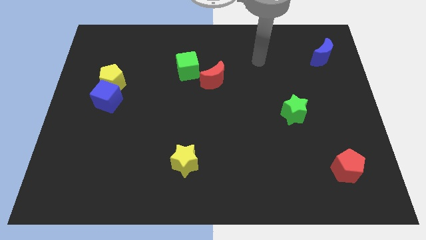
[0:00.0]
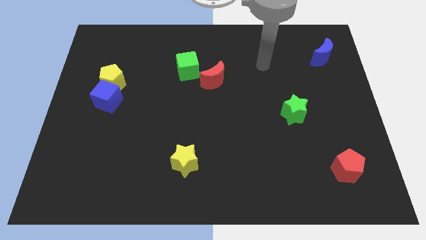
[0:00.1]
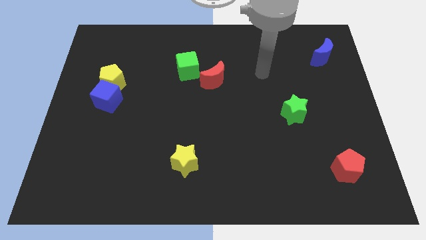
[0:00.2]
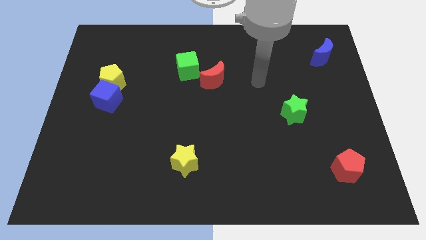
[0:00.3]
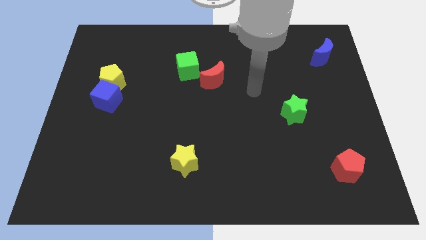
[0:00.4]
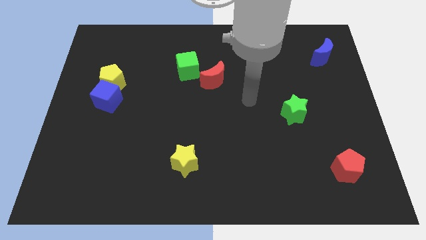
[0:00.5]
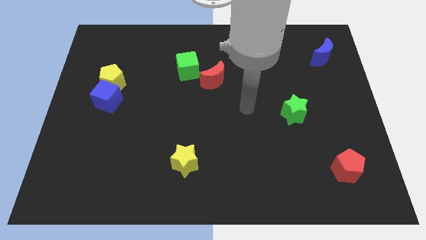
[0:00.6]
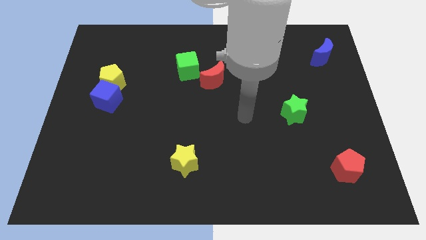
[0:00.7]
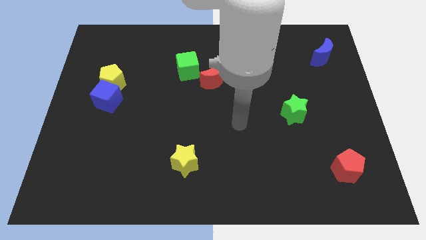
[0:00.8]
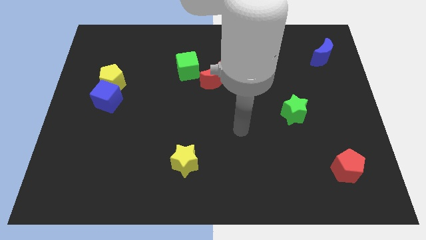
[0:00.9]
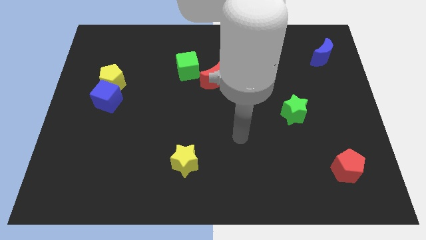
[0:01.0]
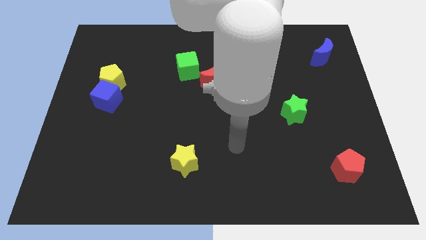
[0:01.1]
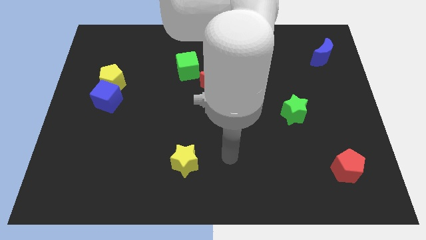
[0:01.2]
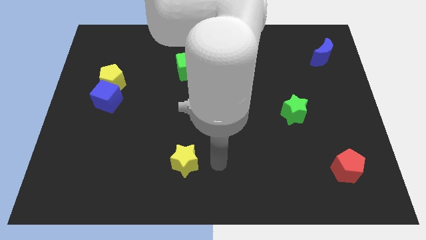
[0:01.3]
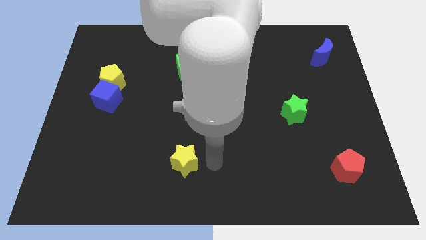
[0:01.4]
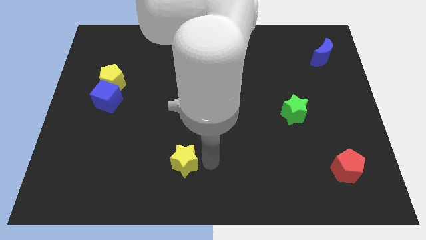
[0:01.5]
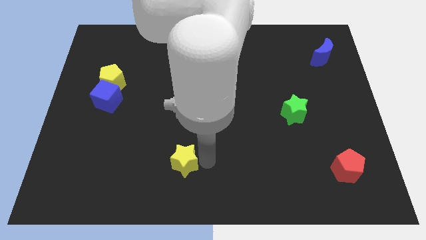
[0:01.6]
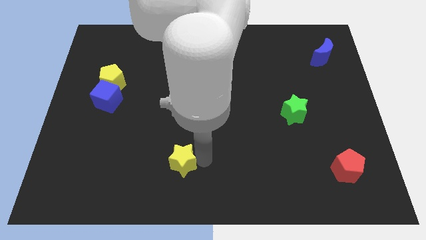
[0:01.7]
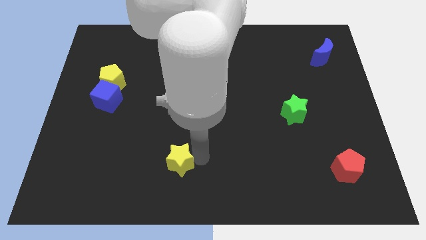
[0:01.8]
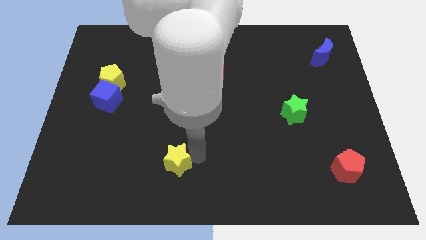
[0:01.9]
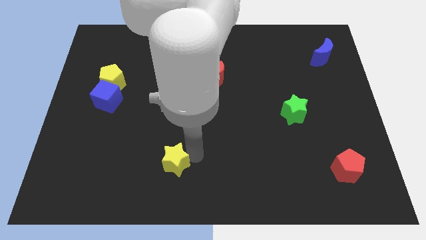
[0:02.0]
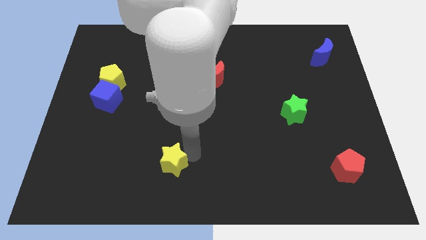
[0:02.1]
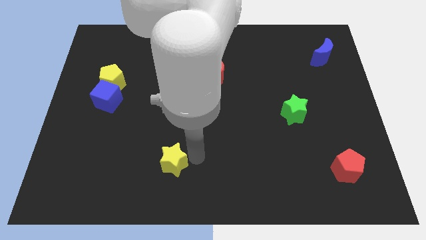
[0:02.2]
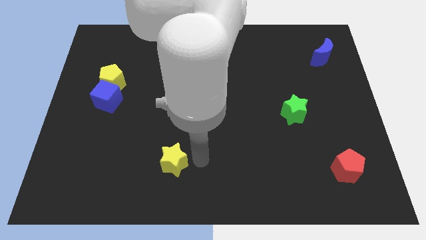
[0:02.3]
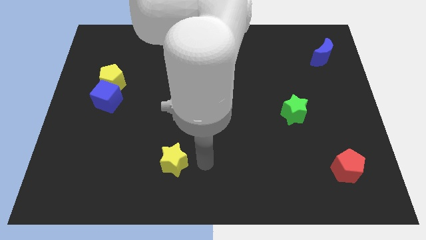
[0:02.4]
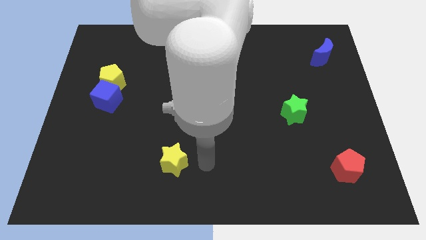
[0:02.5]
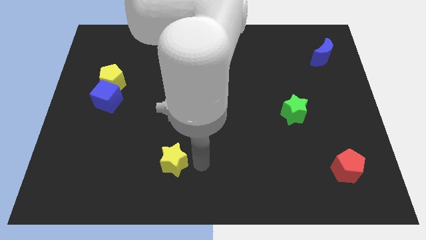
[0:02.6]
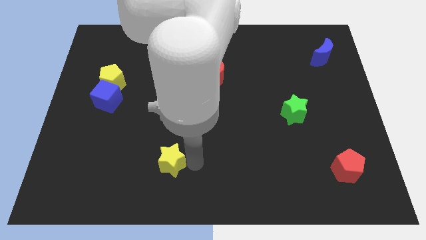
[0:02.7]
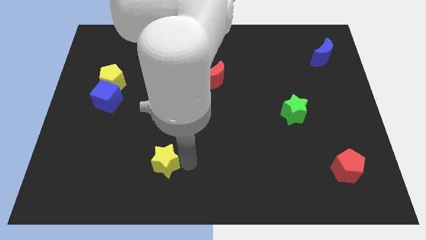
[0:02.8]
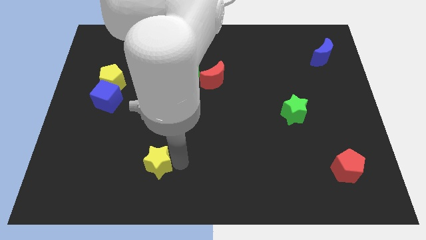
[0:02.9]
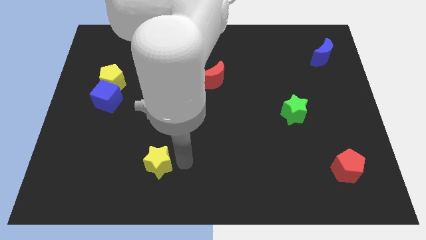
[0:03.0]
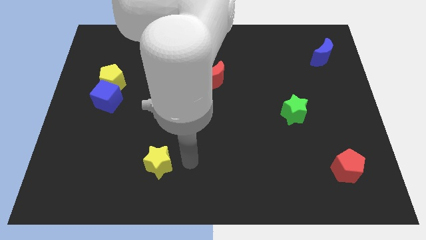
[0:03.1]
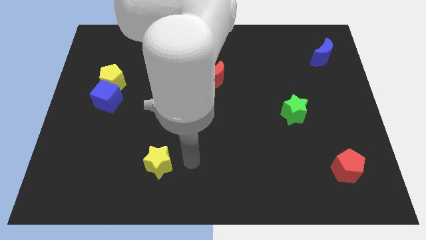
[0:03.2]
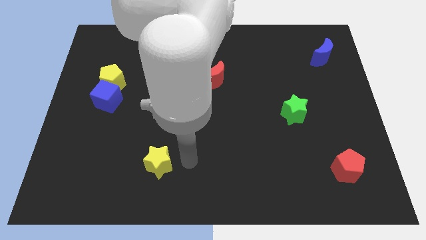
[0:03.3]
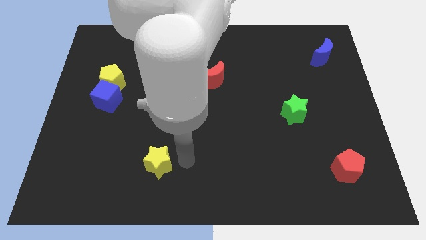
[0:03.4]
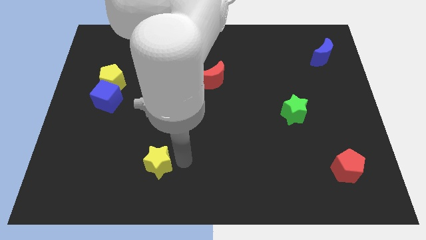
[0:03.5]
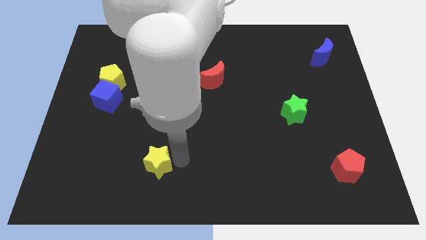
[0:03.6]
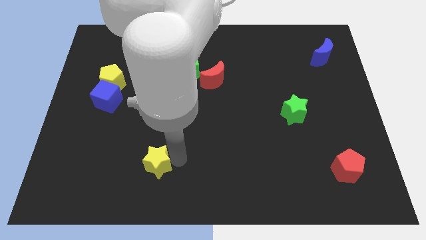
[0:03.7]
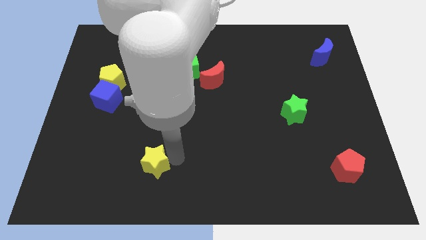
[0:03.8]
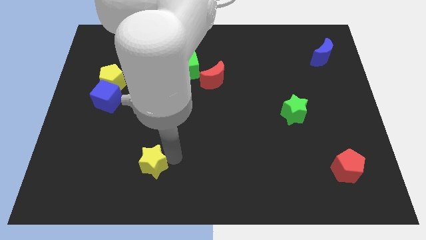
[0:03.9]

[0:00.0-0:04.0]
slightly slide the yellow star to the left

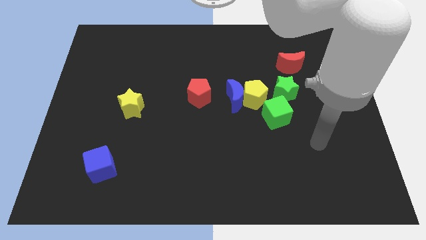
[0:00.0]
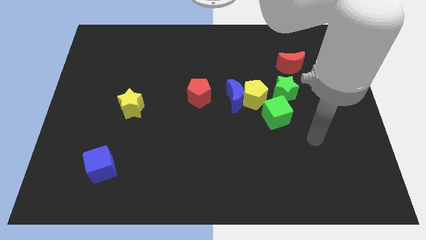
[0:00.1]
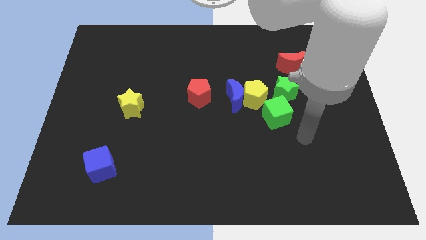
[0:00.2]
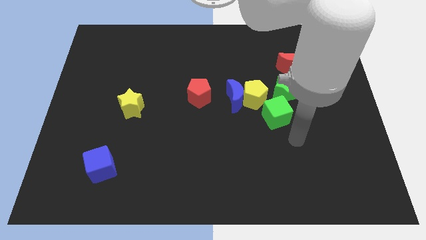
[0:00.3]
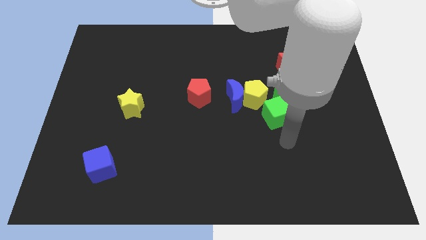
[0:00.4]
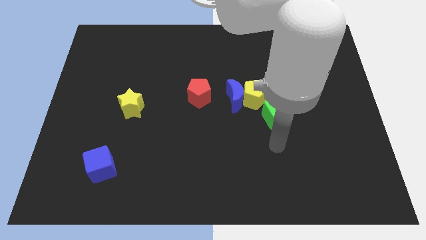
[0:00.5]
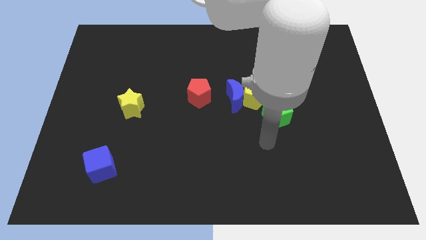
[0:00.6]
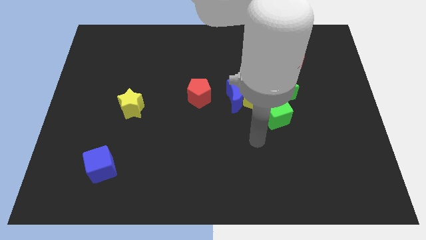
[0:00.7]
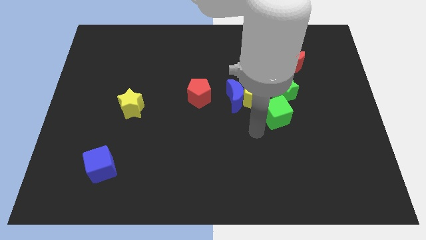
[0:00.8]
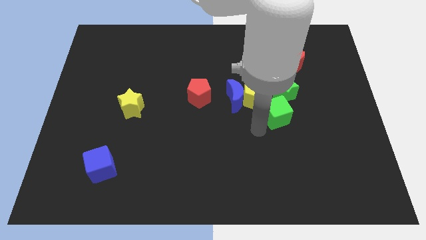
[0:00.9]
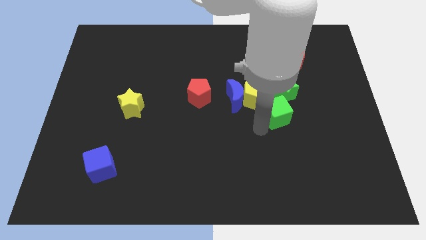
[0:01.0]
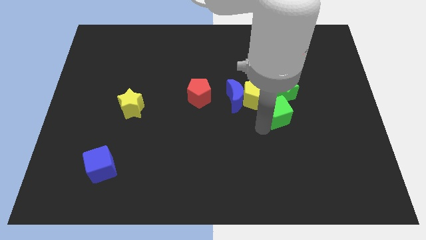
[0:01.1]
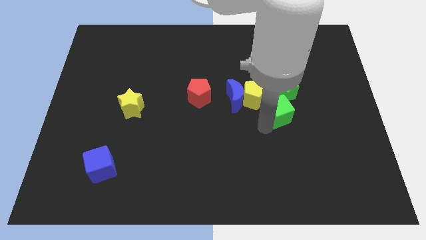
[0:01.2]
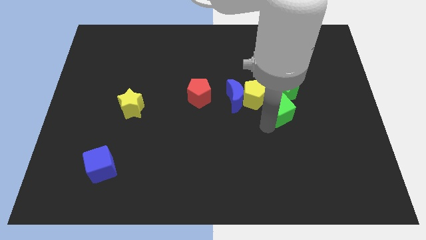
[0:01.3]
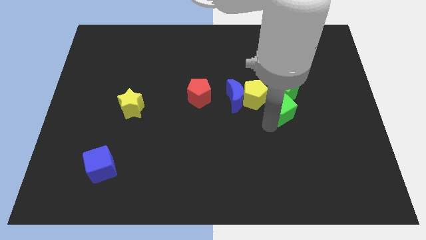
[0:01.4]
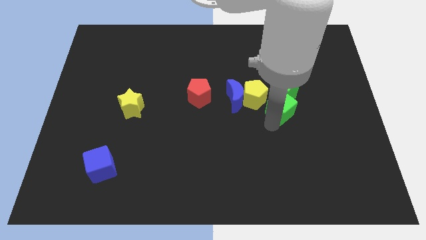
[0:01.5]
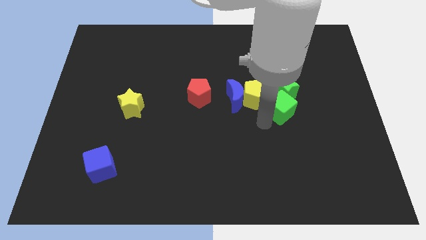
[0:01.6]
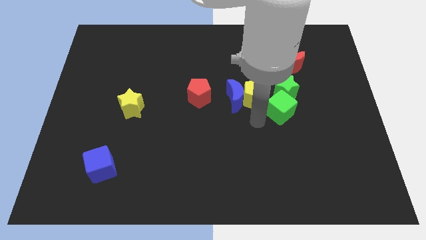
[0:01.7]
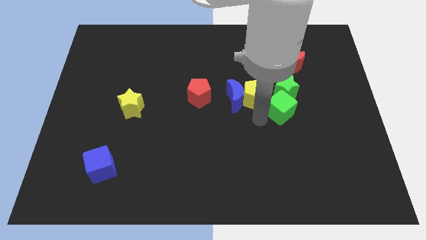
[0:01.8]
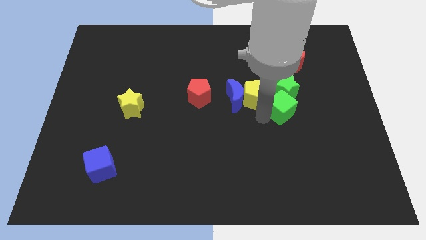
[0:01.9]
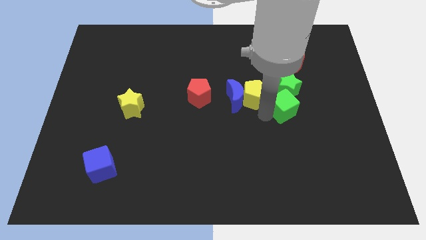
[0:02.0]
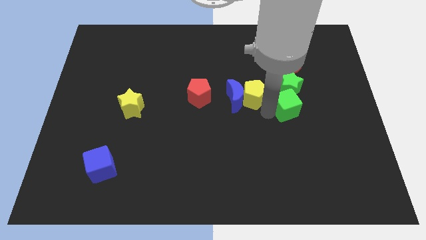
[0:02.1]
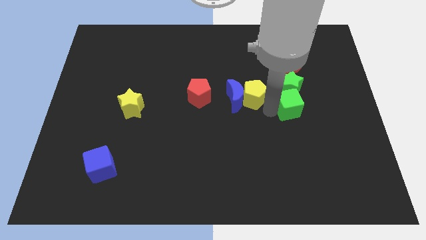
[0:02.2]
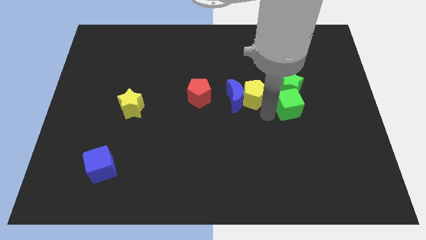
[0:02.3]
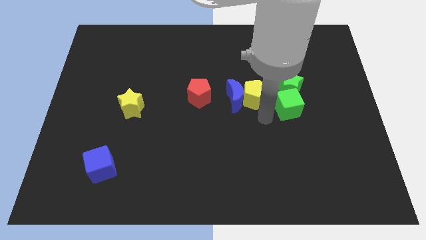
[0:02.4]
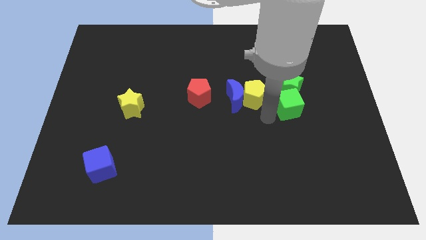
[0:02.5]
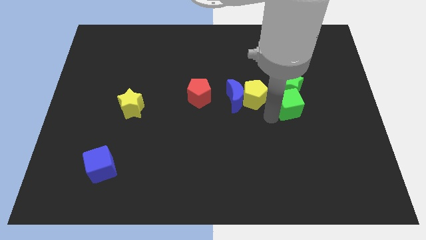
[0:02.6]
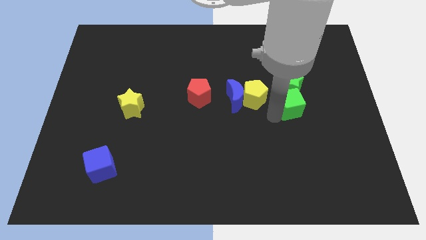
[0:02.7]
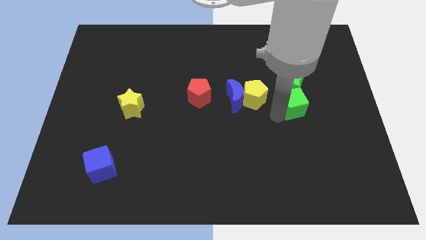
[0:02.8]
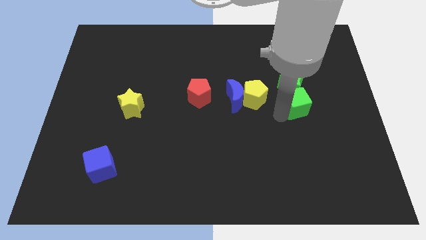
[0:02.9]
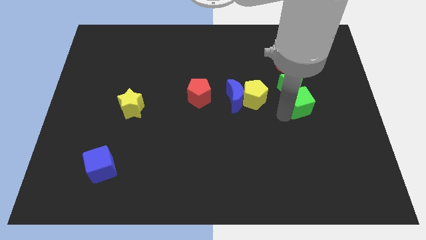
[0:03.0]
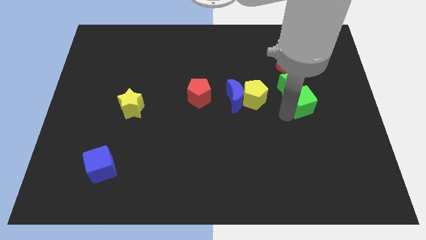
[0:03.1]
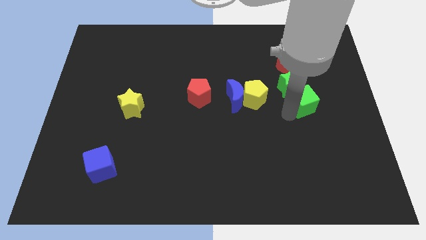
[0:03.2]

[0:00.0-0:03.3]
move the green cube upwards and right a little bit

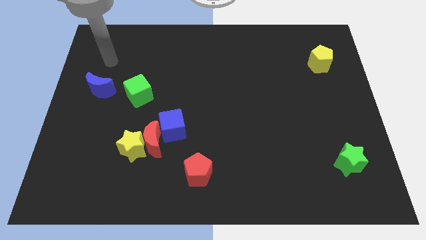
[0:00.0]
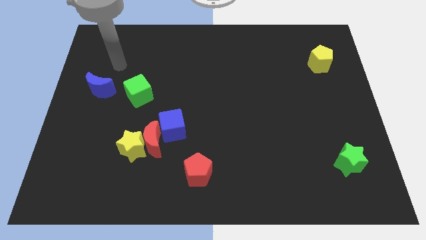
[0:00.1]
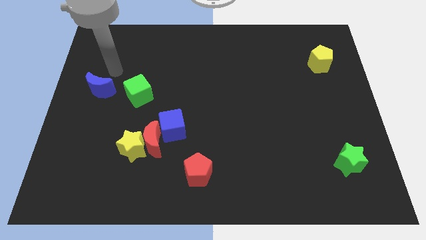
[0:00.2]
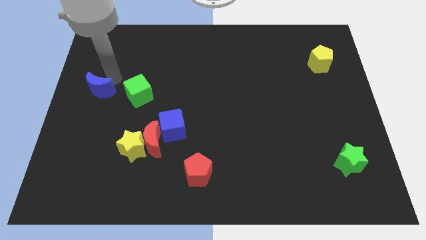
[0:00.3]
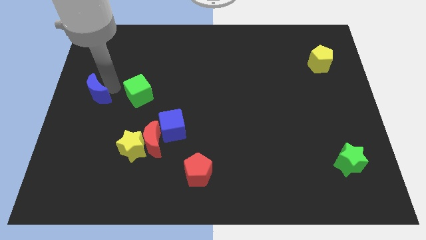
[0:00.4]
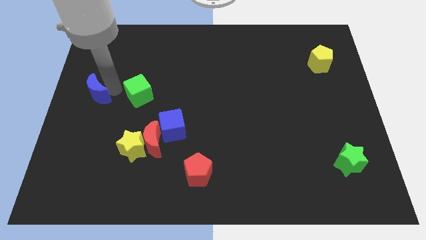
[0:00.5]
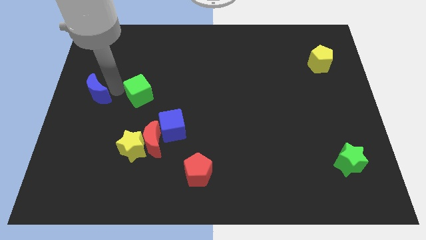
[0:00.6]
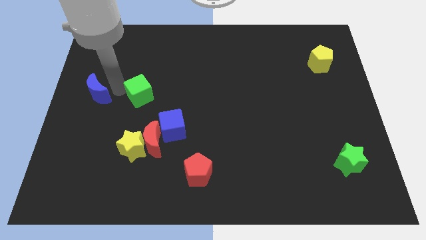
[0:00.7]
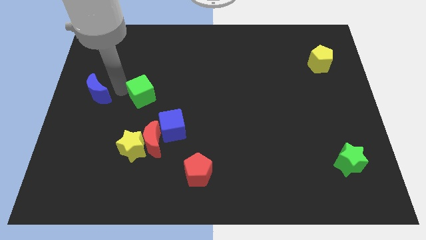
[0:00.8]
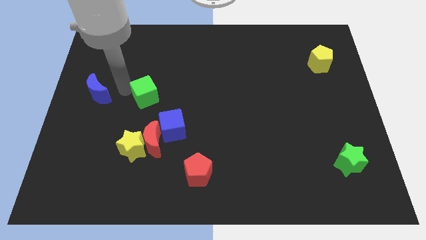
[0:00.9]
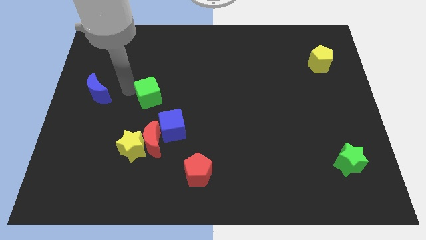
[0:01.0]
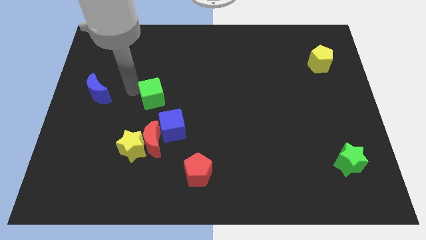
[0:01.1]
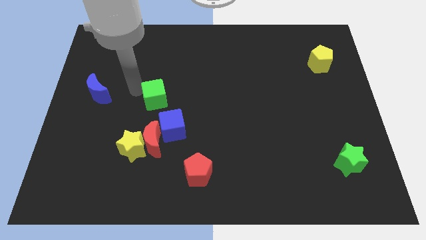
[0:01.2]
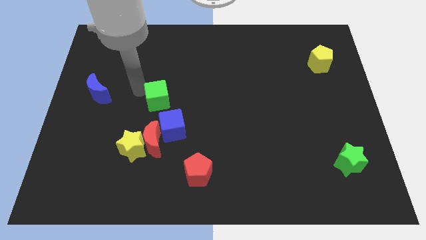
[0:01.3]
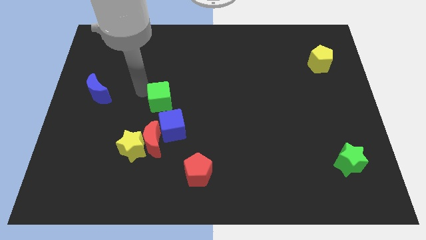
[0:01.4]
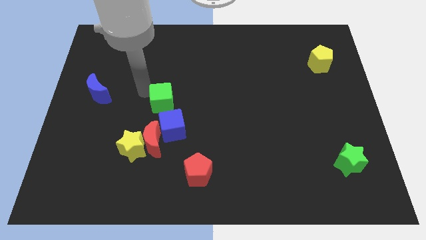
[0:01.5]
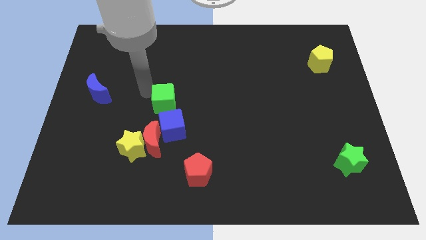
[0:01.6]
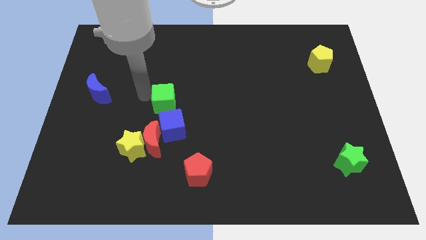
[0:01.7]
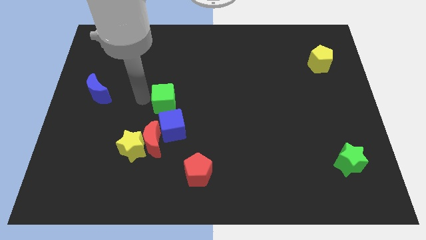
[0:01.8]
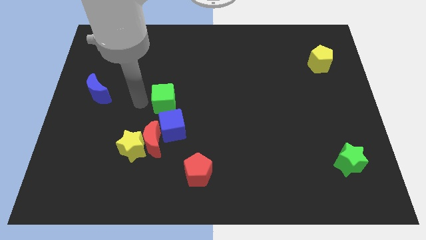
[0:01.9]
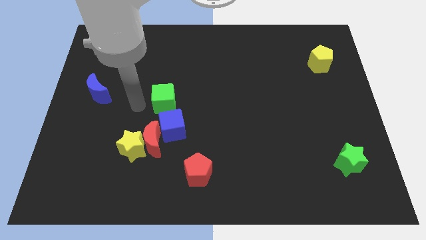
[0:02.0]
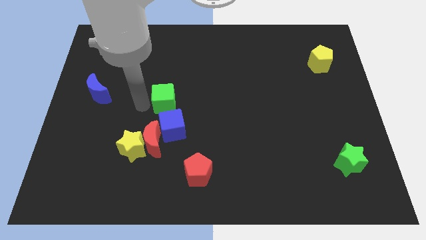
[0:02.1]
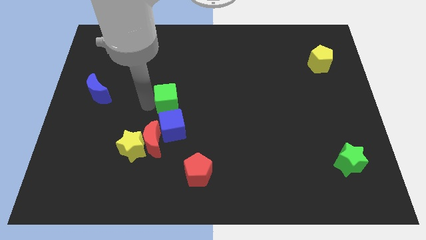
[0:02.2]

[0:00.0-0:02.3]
push the green cube right a bit
